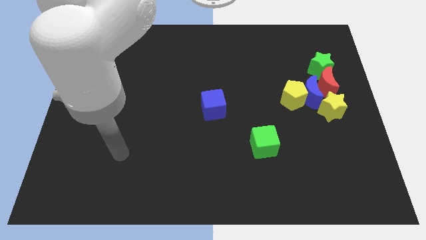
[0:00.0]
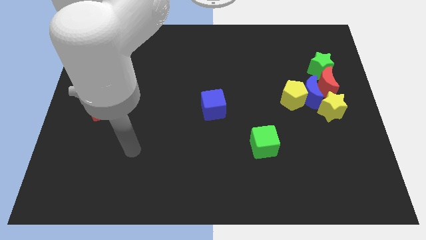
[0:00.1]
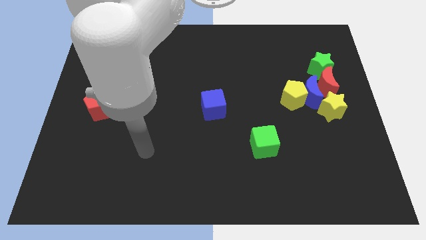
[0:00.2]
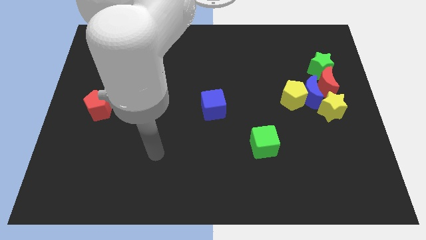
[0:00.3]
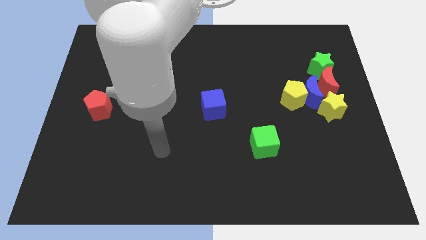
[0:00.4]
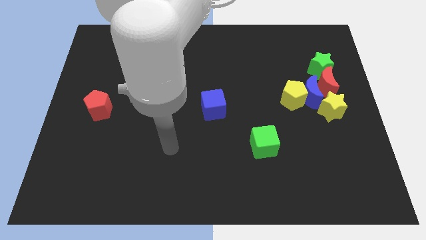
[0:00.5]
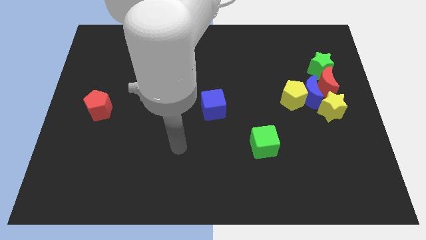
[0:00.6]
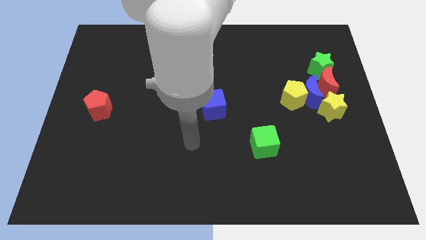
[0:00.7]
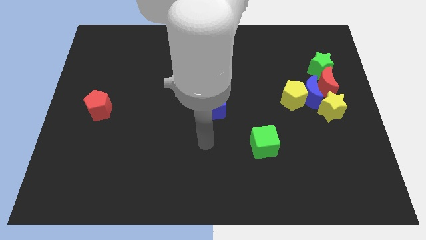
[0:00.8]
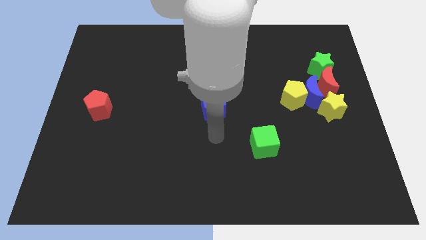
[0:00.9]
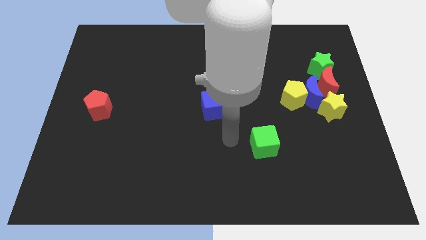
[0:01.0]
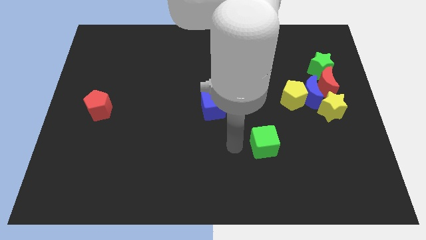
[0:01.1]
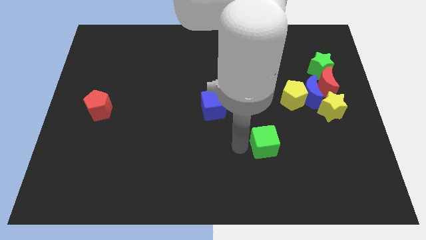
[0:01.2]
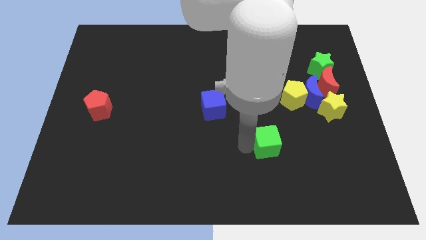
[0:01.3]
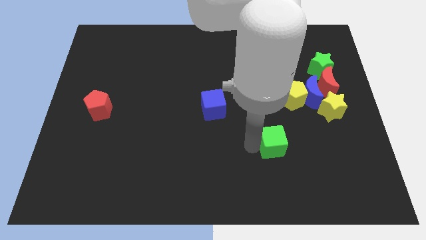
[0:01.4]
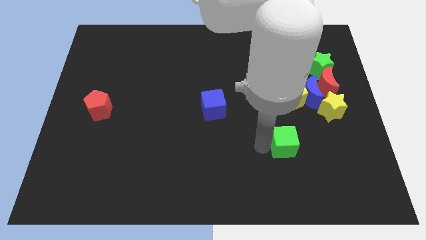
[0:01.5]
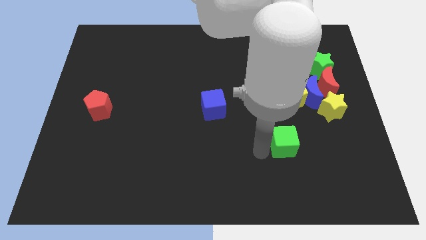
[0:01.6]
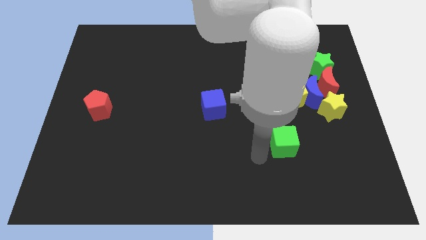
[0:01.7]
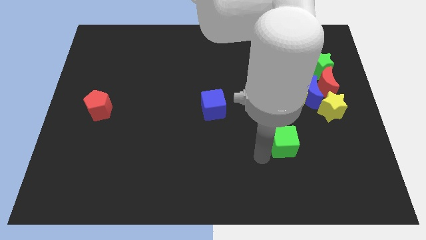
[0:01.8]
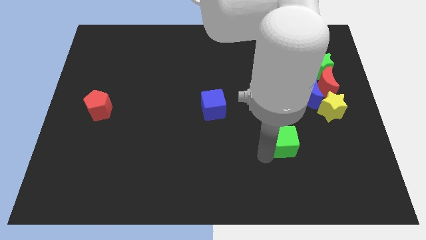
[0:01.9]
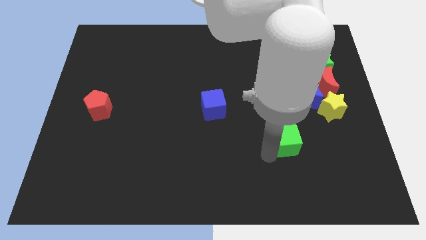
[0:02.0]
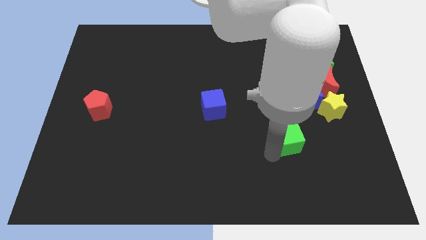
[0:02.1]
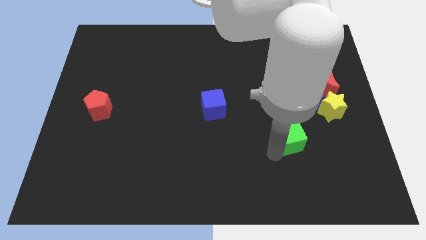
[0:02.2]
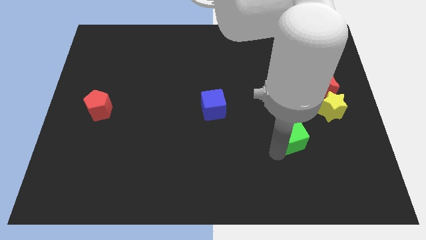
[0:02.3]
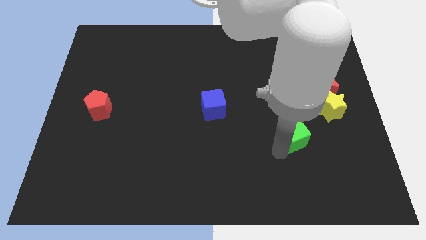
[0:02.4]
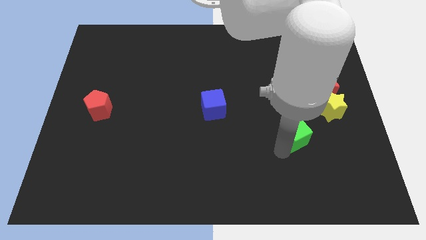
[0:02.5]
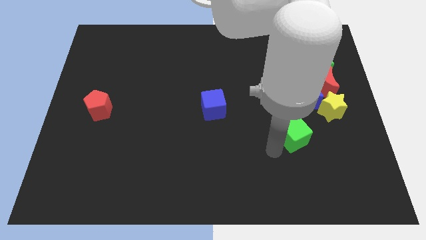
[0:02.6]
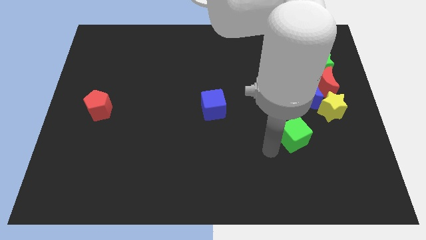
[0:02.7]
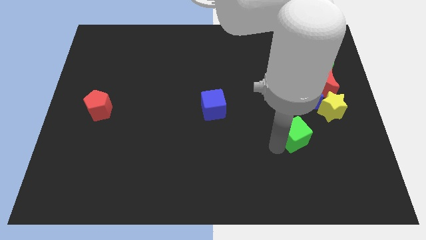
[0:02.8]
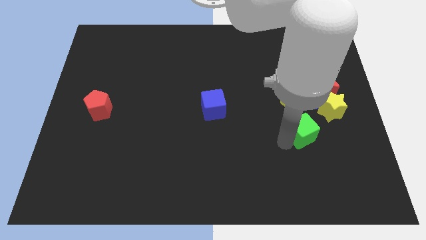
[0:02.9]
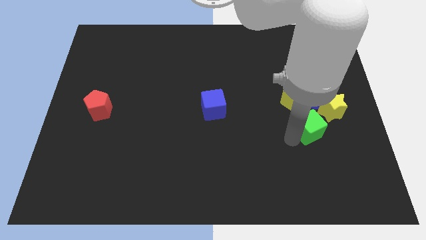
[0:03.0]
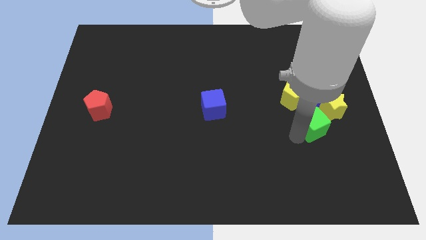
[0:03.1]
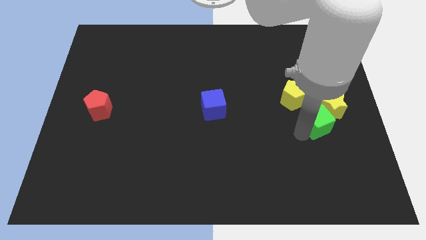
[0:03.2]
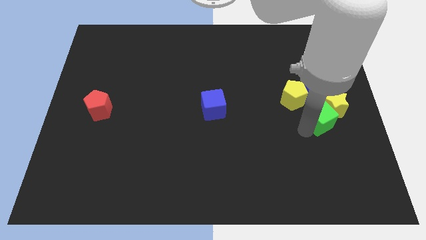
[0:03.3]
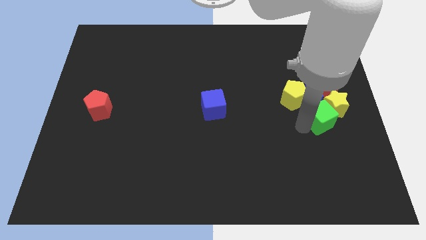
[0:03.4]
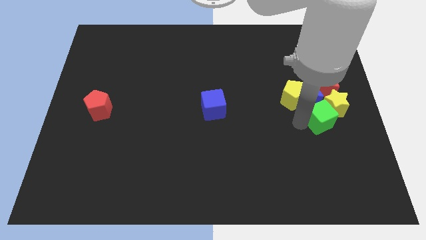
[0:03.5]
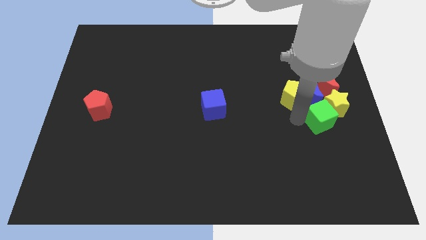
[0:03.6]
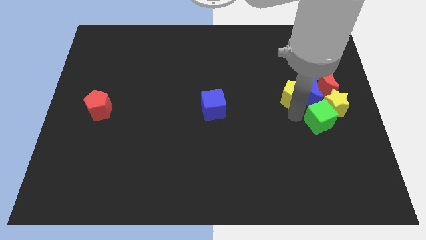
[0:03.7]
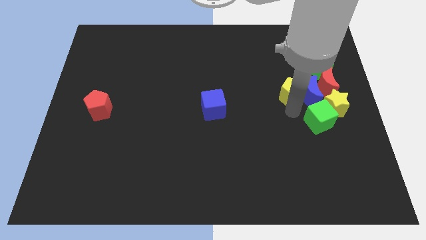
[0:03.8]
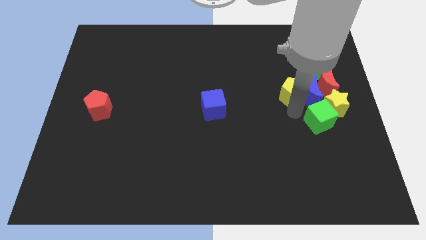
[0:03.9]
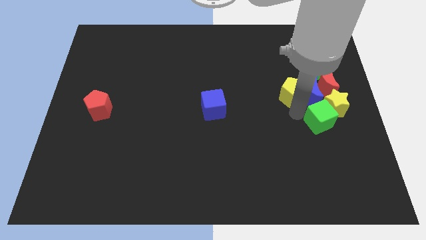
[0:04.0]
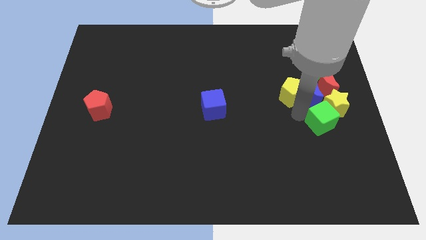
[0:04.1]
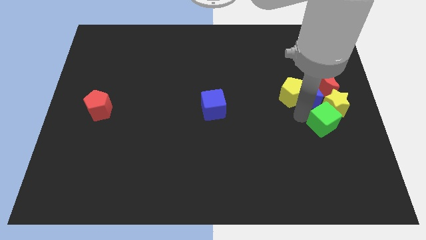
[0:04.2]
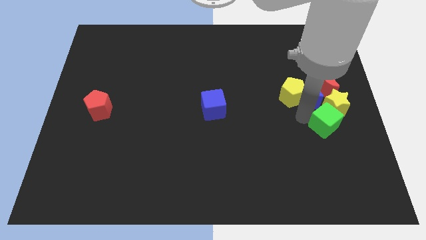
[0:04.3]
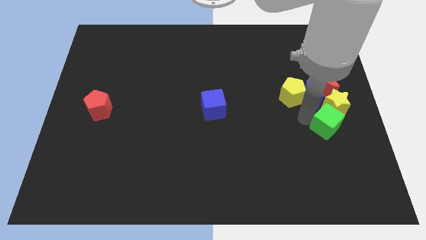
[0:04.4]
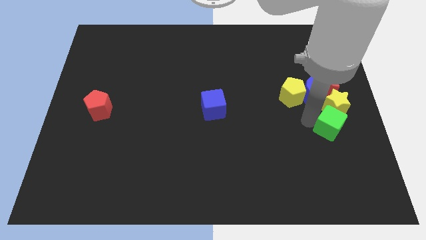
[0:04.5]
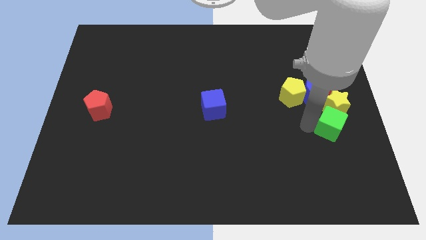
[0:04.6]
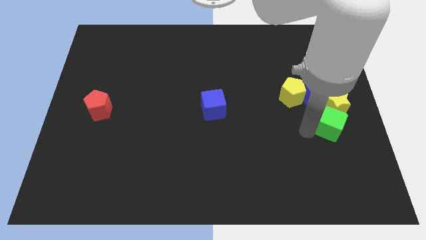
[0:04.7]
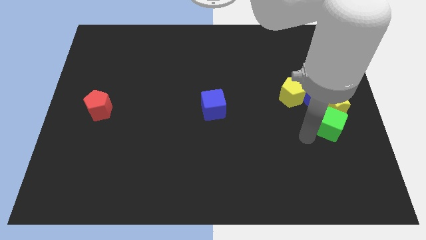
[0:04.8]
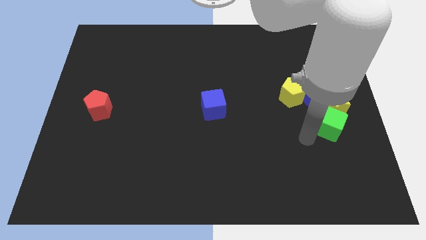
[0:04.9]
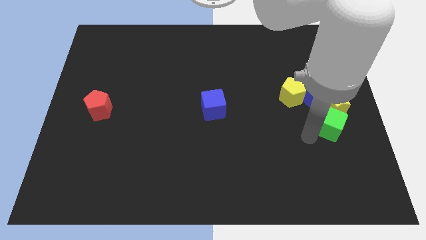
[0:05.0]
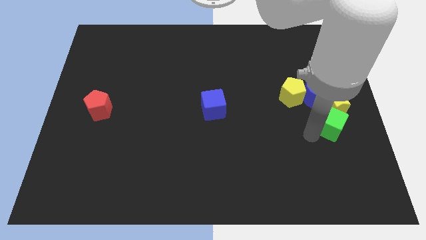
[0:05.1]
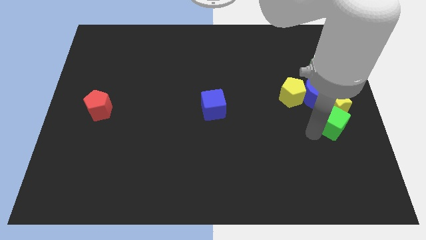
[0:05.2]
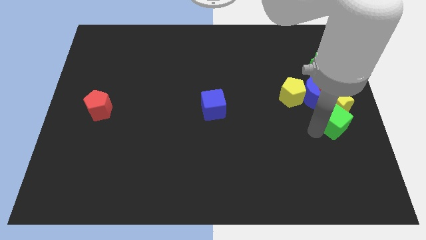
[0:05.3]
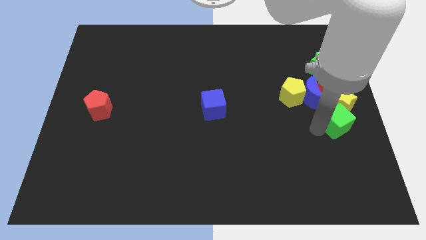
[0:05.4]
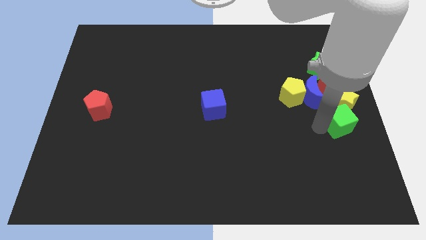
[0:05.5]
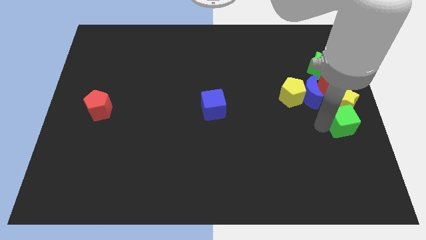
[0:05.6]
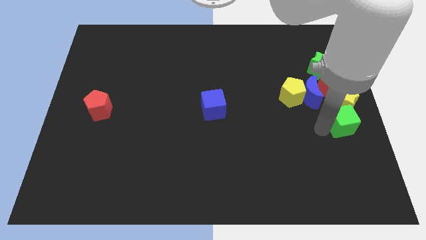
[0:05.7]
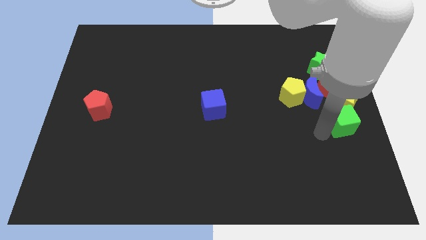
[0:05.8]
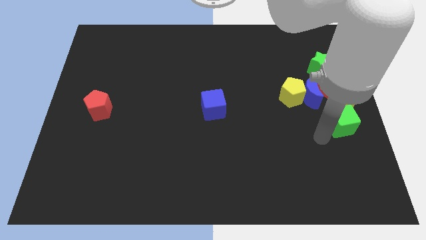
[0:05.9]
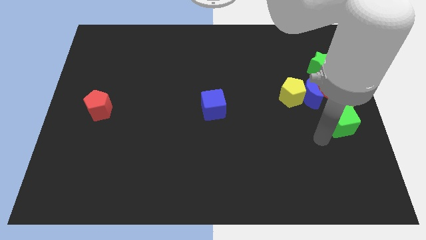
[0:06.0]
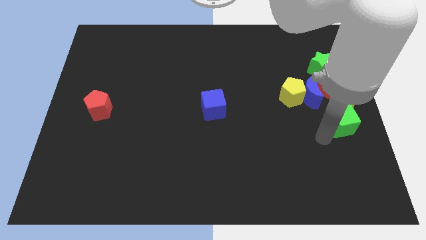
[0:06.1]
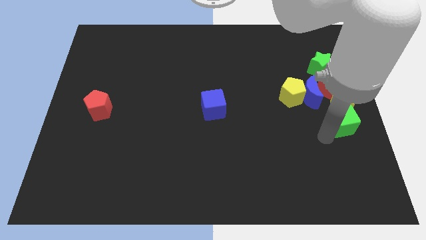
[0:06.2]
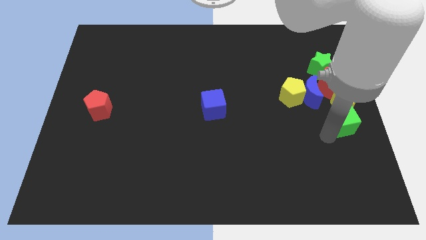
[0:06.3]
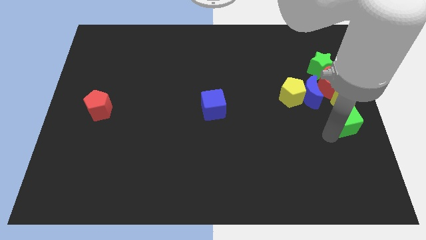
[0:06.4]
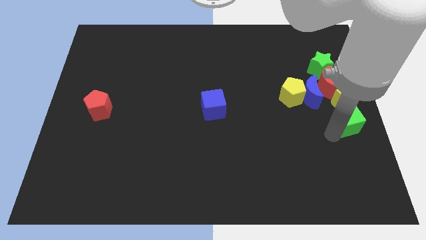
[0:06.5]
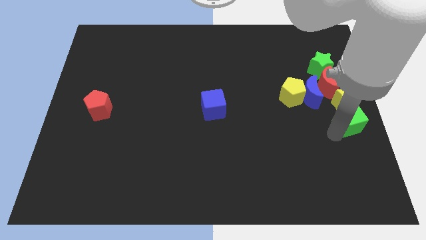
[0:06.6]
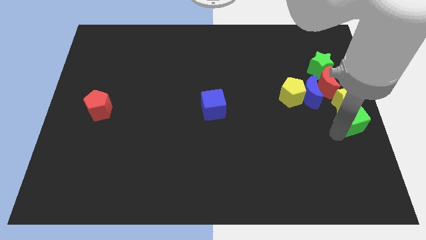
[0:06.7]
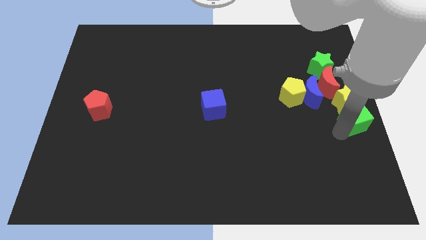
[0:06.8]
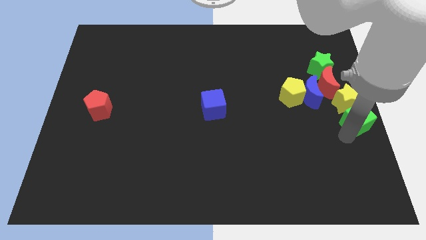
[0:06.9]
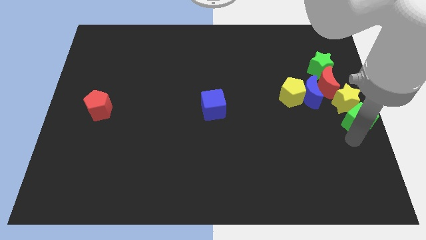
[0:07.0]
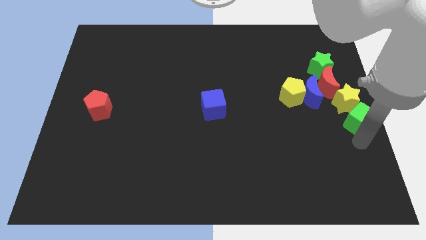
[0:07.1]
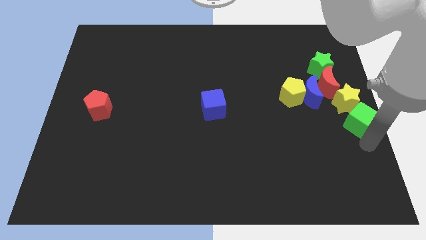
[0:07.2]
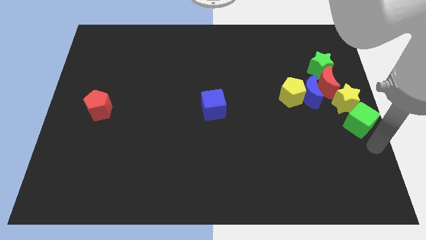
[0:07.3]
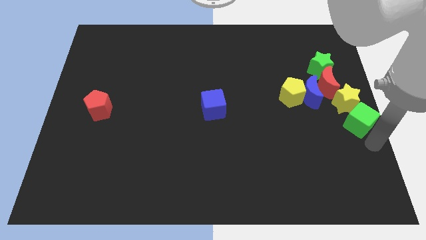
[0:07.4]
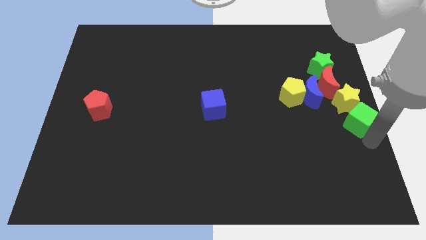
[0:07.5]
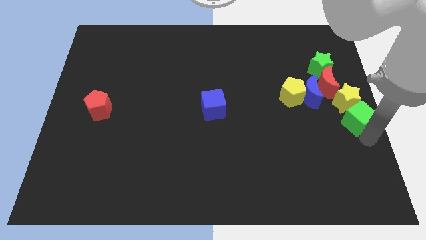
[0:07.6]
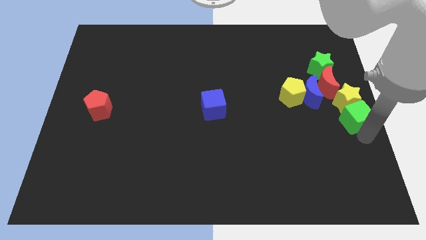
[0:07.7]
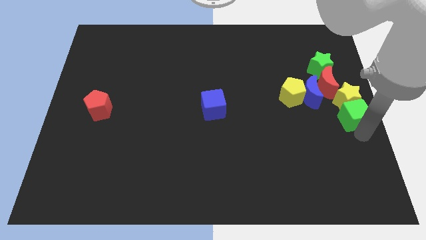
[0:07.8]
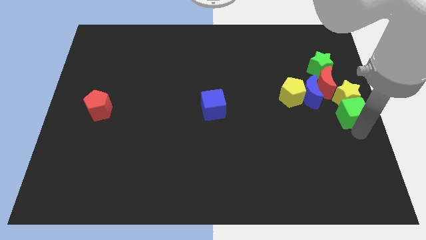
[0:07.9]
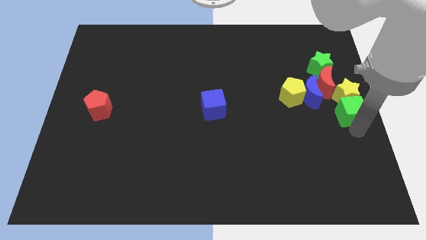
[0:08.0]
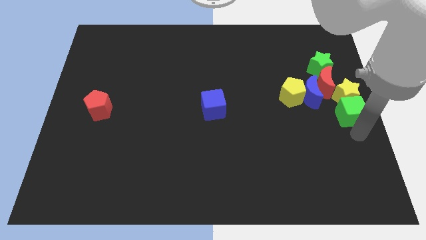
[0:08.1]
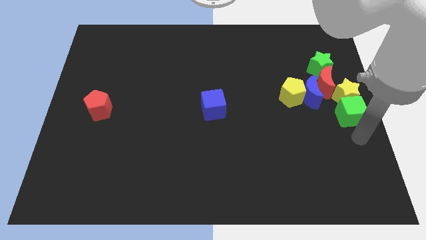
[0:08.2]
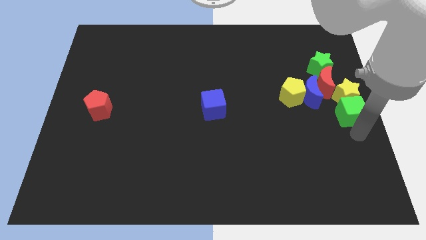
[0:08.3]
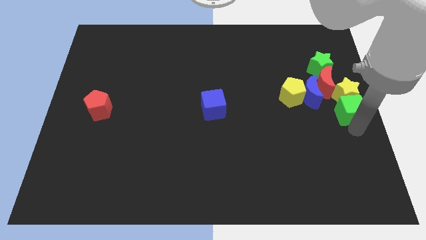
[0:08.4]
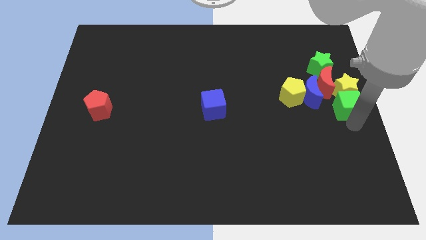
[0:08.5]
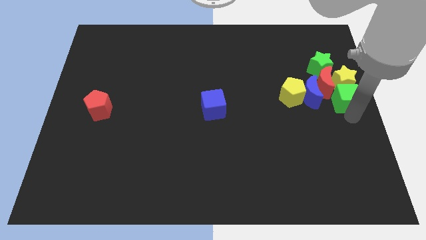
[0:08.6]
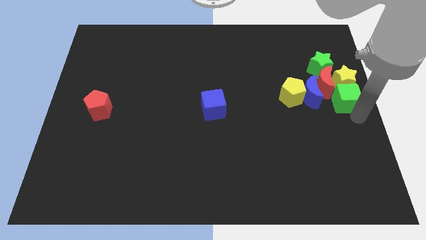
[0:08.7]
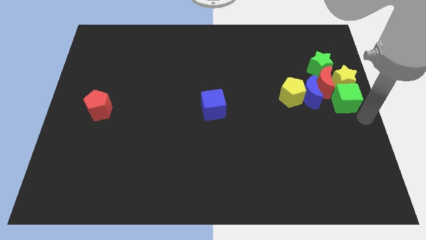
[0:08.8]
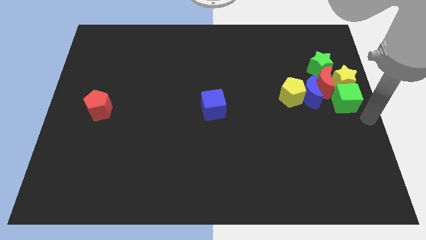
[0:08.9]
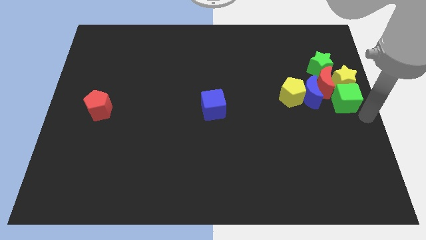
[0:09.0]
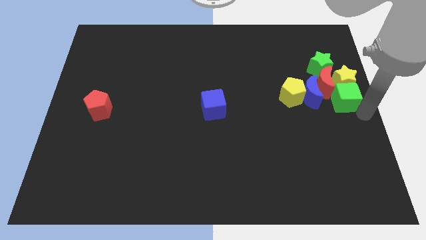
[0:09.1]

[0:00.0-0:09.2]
slide the green cube next to the red moon
